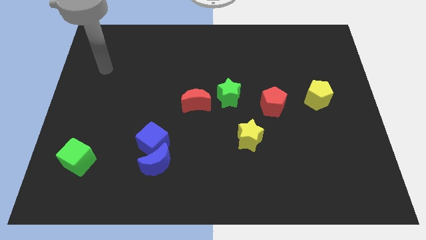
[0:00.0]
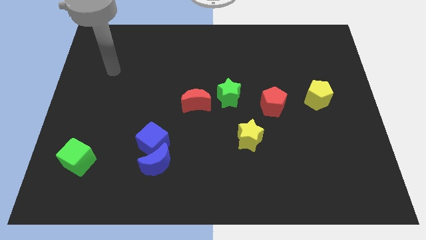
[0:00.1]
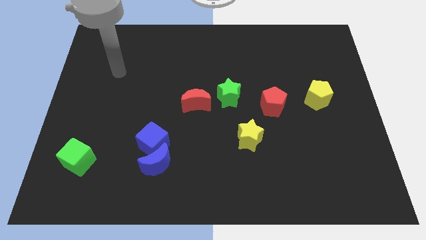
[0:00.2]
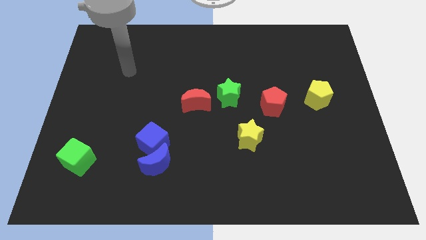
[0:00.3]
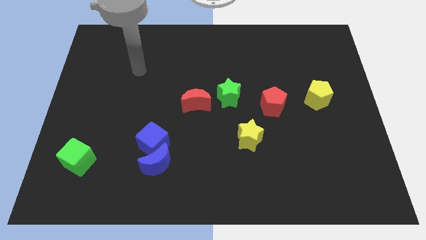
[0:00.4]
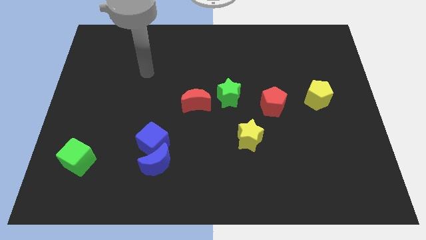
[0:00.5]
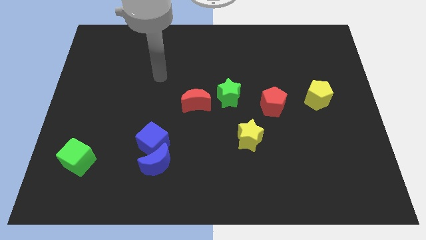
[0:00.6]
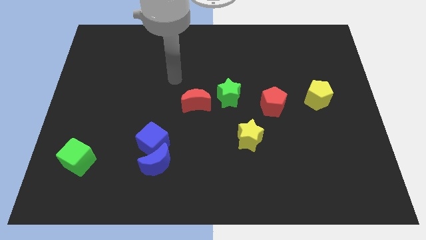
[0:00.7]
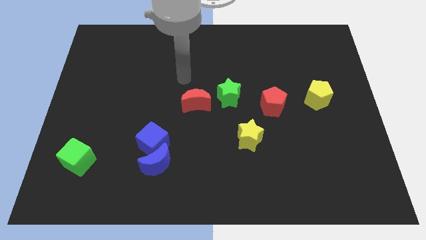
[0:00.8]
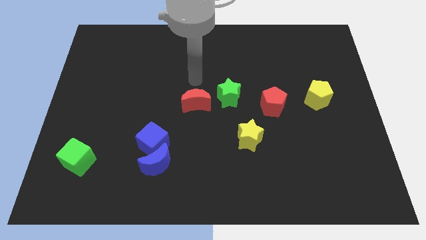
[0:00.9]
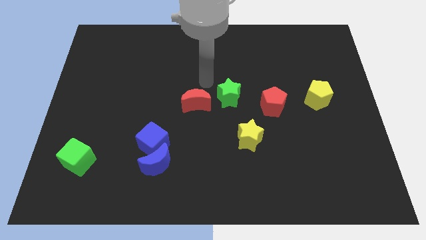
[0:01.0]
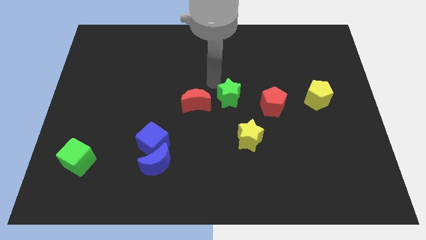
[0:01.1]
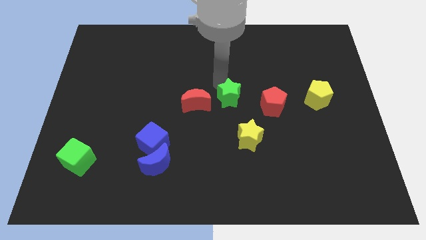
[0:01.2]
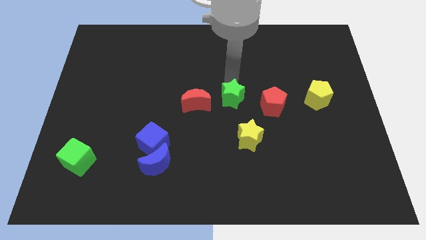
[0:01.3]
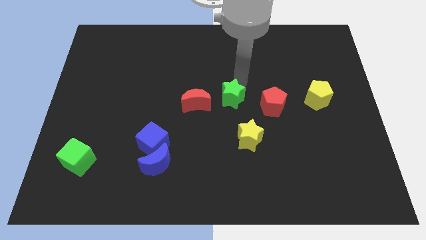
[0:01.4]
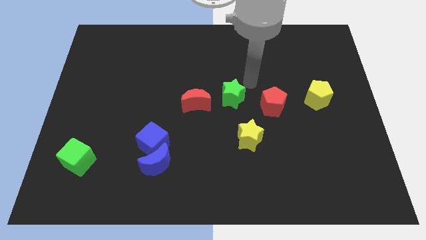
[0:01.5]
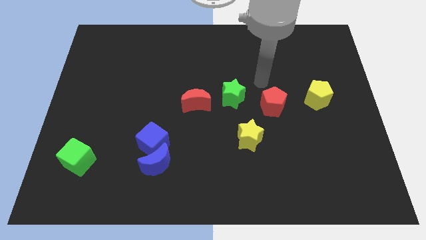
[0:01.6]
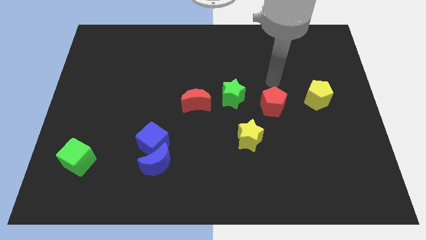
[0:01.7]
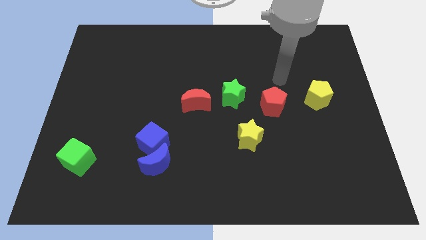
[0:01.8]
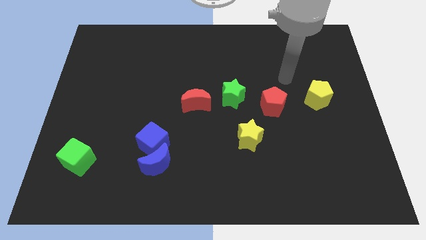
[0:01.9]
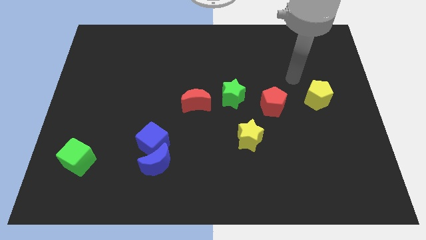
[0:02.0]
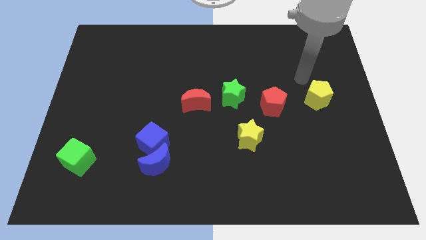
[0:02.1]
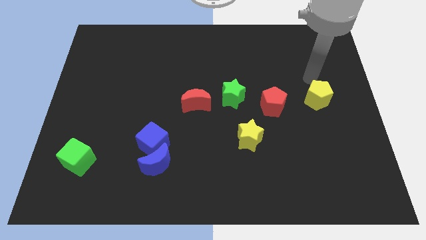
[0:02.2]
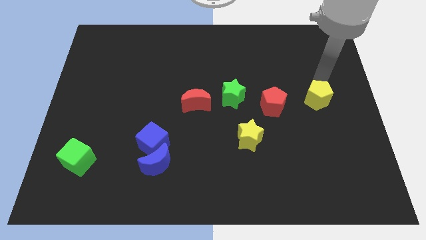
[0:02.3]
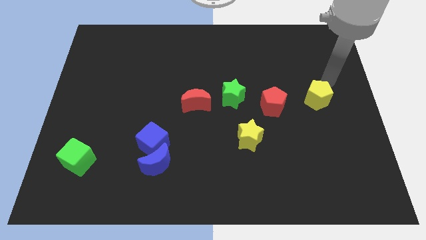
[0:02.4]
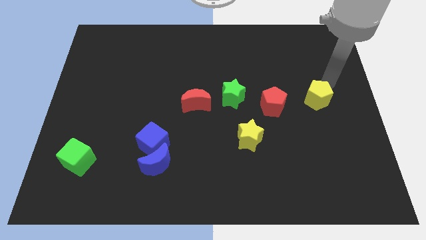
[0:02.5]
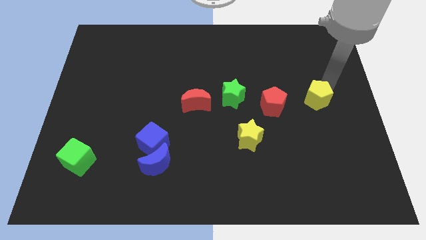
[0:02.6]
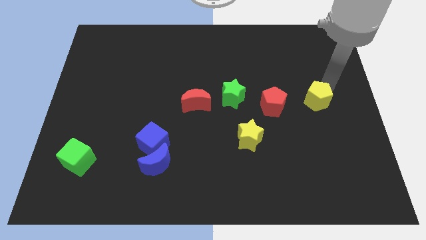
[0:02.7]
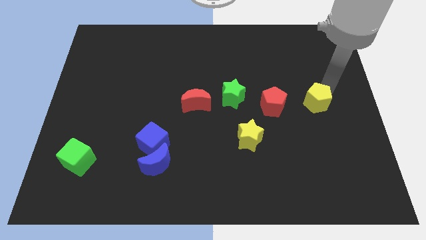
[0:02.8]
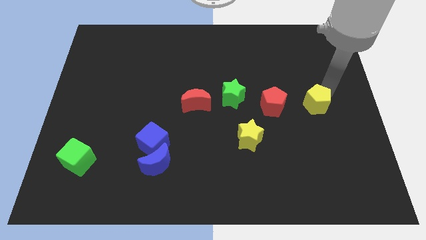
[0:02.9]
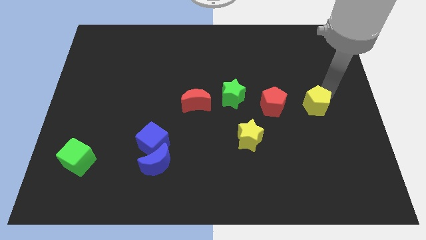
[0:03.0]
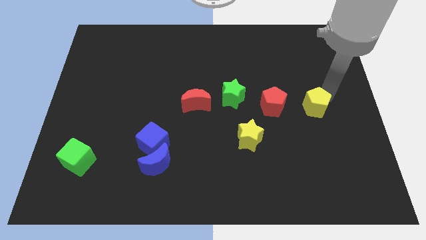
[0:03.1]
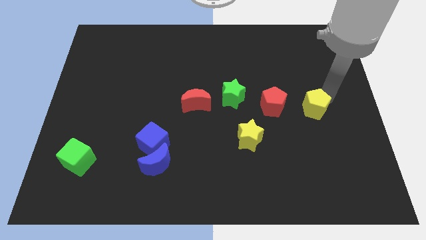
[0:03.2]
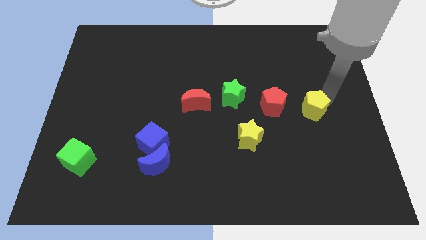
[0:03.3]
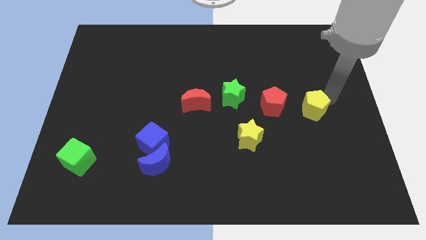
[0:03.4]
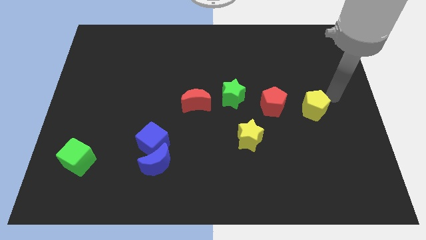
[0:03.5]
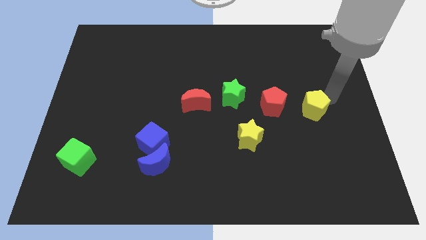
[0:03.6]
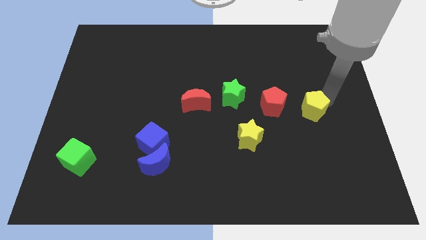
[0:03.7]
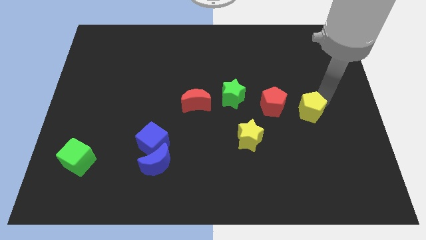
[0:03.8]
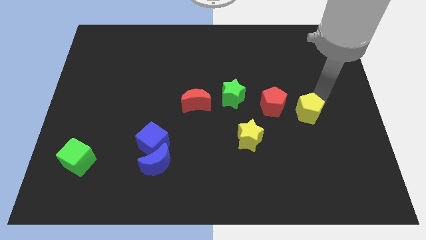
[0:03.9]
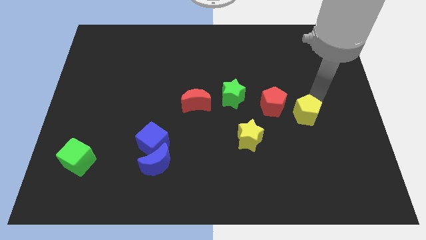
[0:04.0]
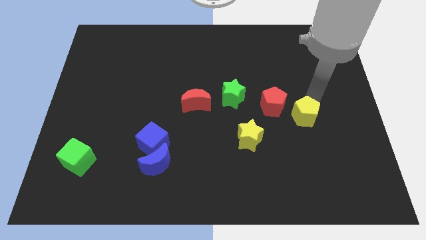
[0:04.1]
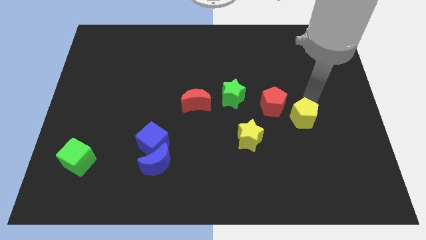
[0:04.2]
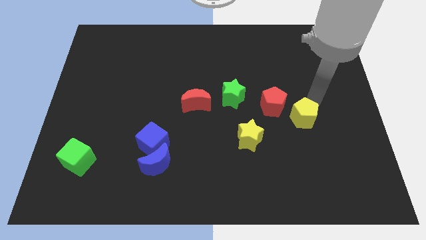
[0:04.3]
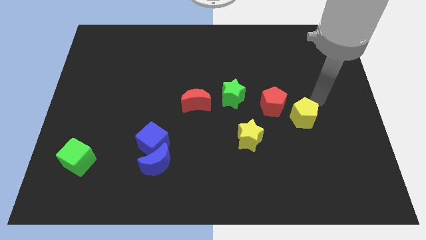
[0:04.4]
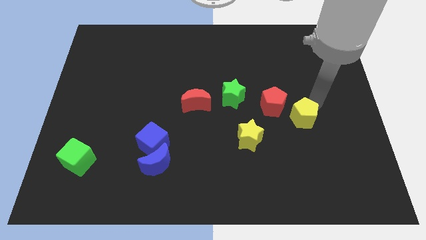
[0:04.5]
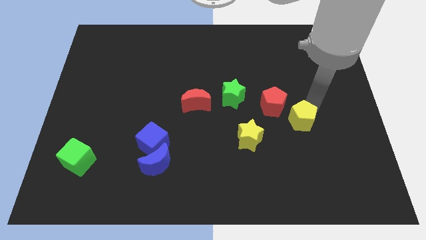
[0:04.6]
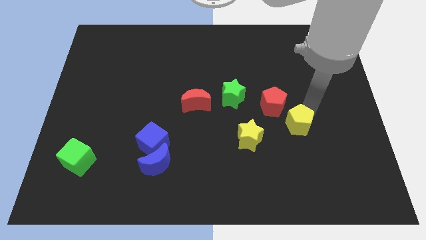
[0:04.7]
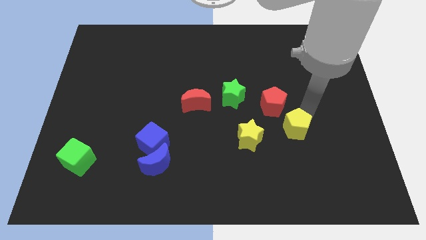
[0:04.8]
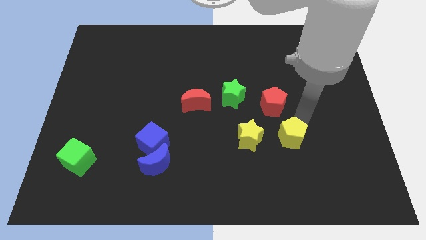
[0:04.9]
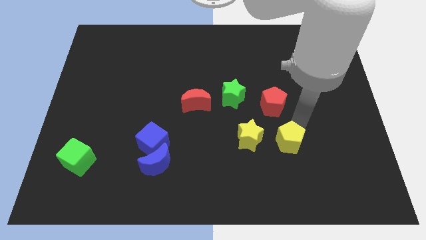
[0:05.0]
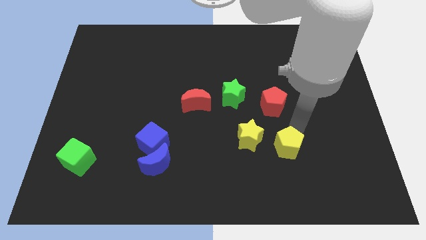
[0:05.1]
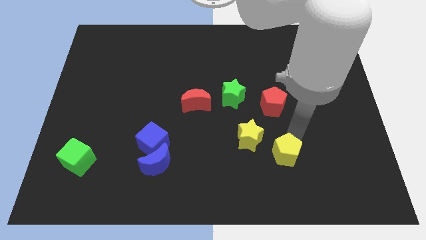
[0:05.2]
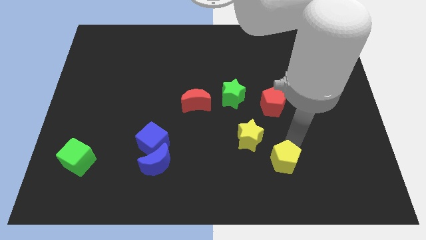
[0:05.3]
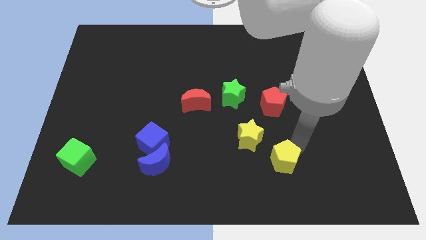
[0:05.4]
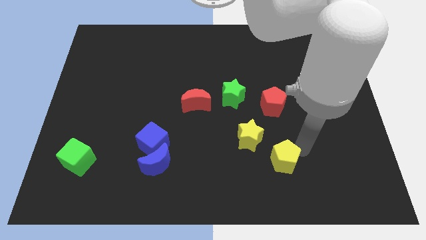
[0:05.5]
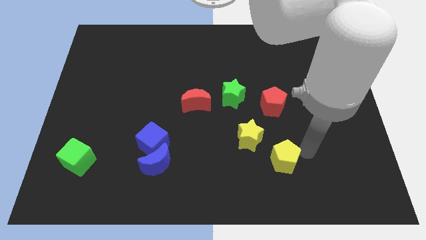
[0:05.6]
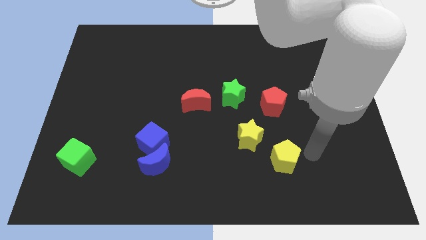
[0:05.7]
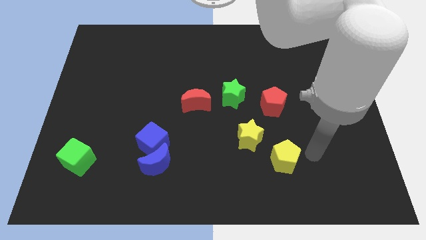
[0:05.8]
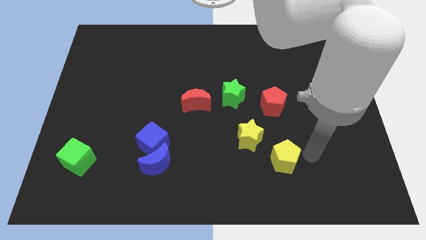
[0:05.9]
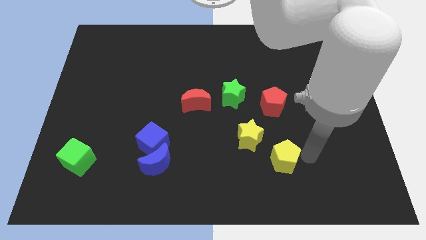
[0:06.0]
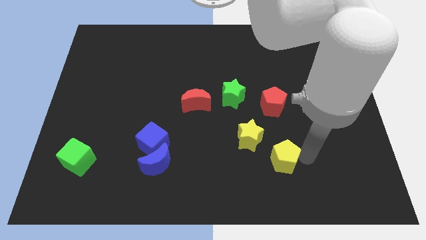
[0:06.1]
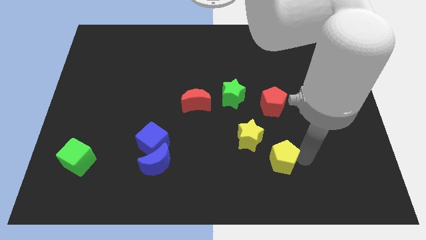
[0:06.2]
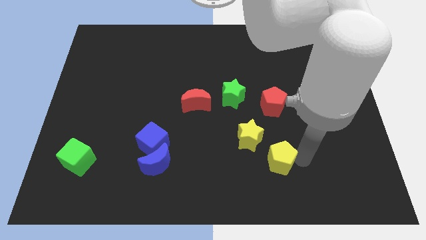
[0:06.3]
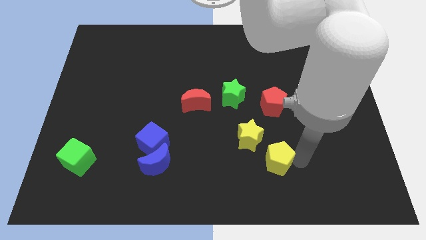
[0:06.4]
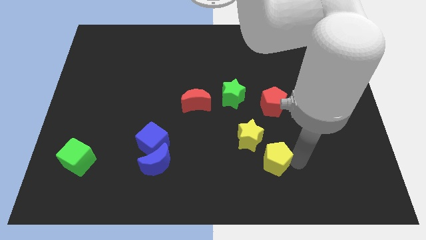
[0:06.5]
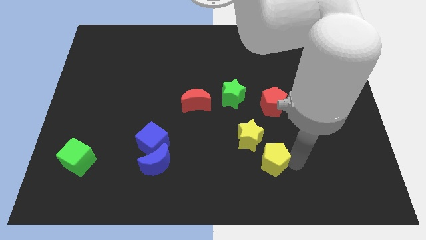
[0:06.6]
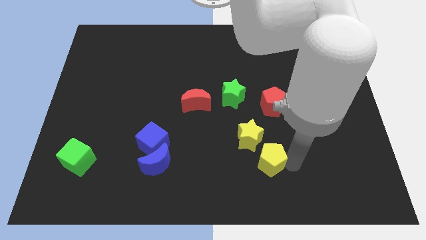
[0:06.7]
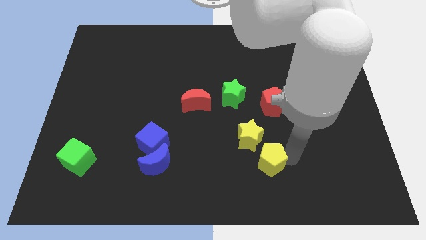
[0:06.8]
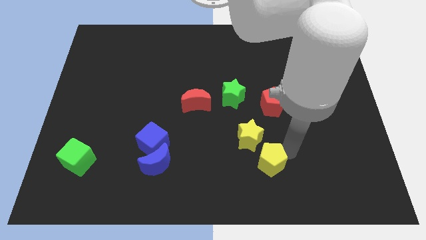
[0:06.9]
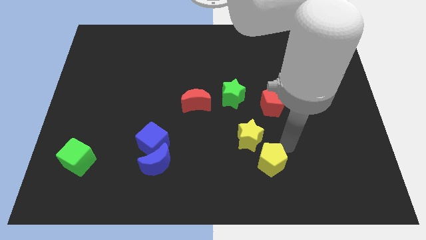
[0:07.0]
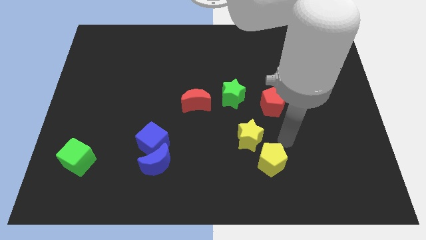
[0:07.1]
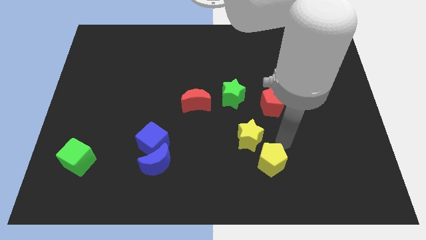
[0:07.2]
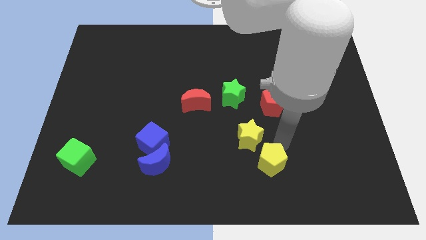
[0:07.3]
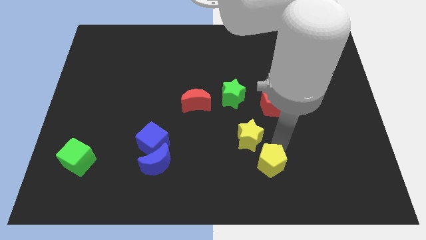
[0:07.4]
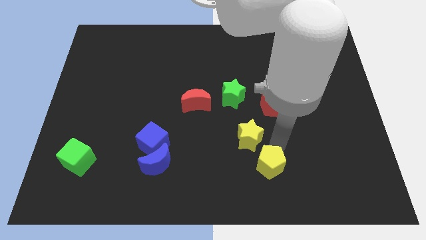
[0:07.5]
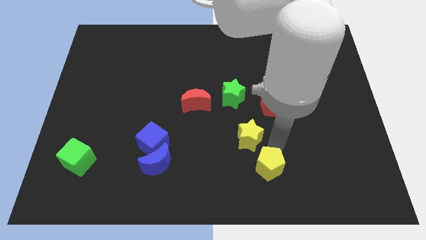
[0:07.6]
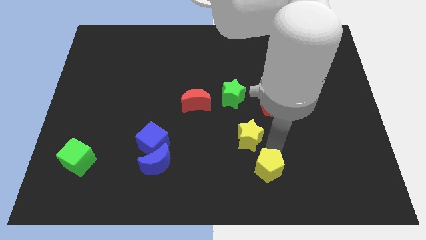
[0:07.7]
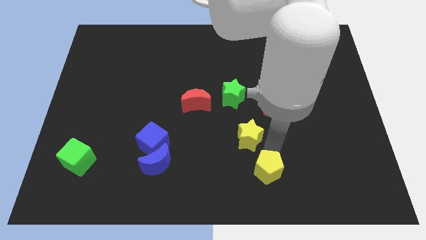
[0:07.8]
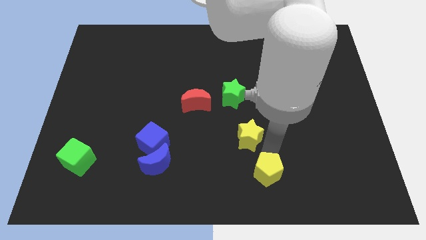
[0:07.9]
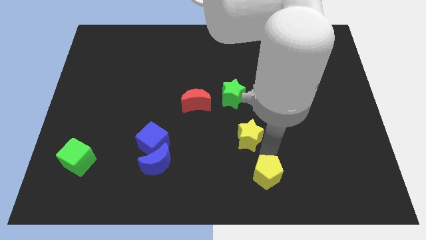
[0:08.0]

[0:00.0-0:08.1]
move the yellow pentagon to the bottom
